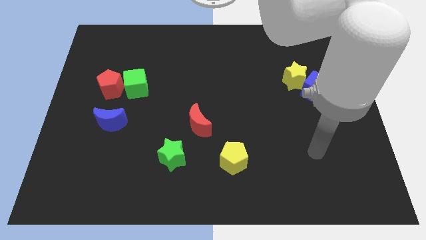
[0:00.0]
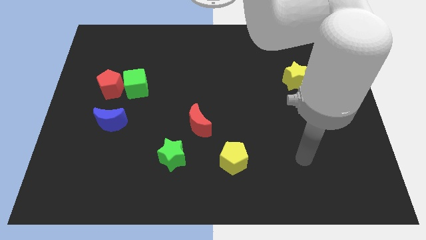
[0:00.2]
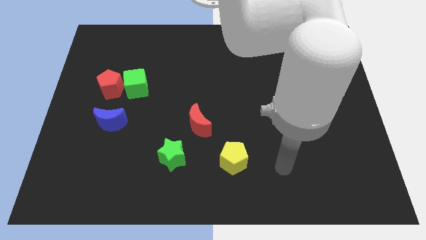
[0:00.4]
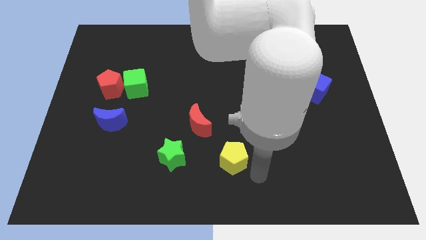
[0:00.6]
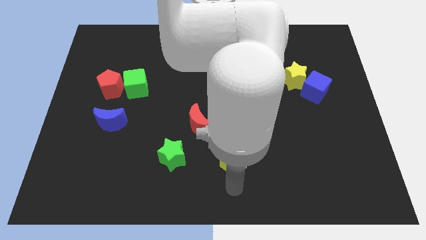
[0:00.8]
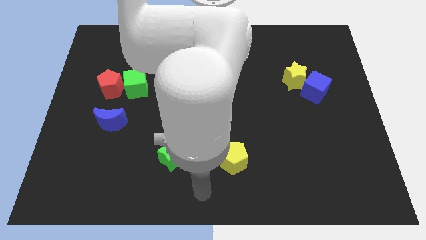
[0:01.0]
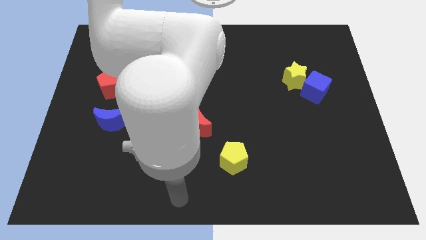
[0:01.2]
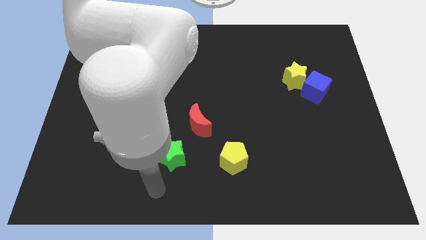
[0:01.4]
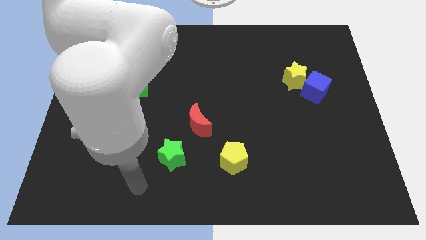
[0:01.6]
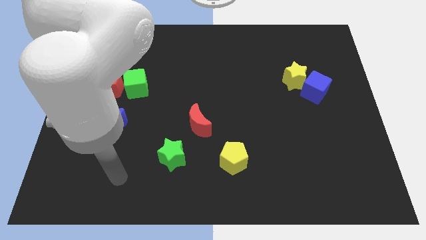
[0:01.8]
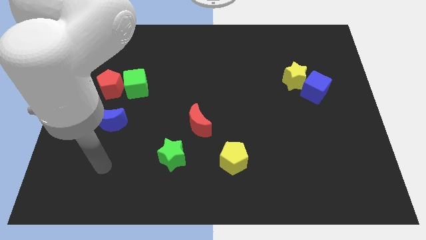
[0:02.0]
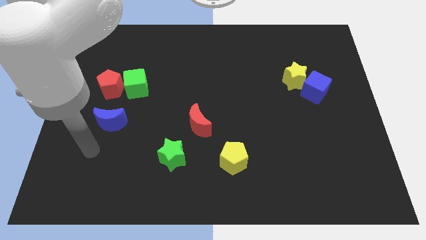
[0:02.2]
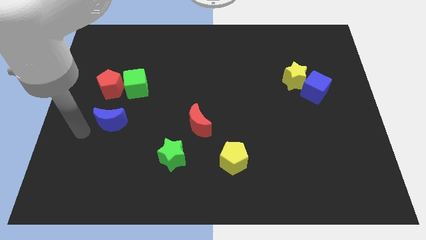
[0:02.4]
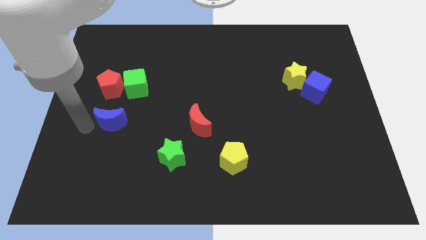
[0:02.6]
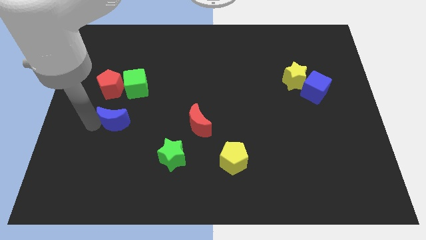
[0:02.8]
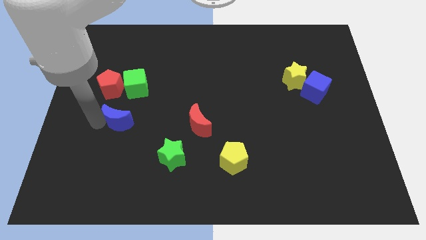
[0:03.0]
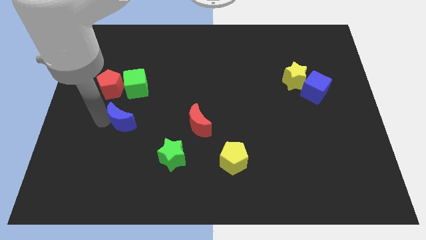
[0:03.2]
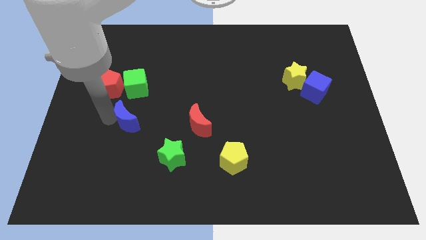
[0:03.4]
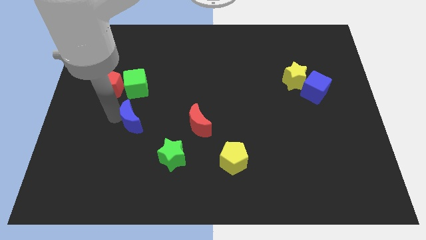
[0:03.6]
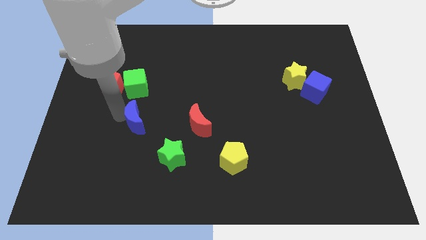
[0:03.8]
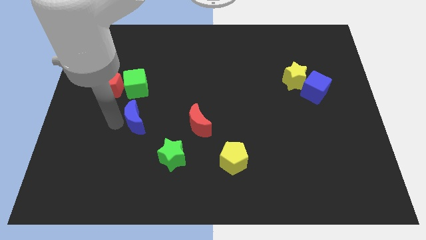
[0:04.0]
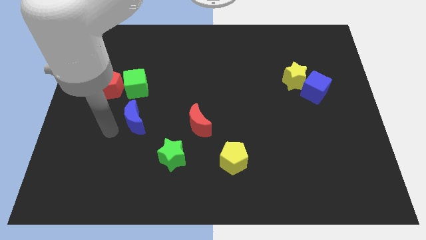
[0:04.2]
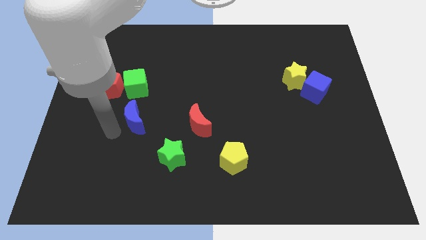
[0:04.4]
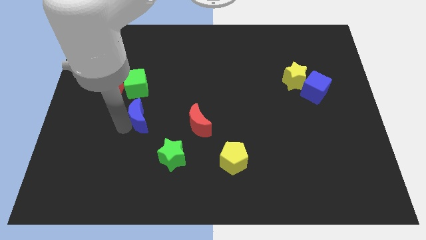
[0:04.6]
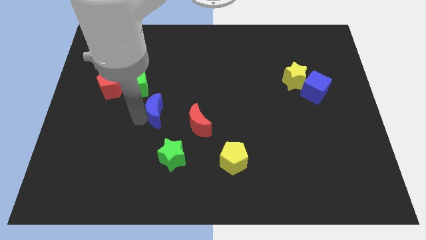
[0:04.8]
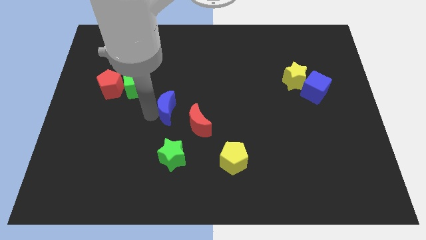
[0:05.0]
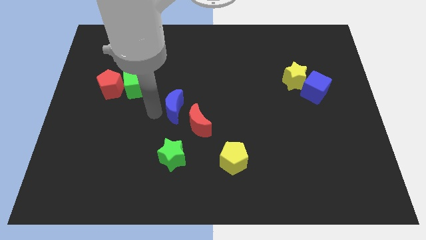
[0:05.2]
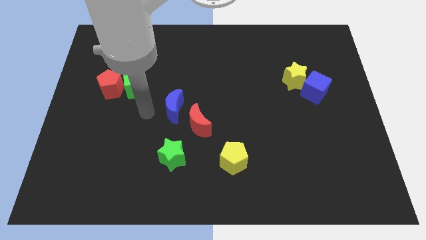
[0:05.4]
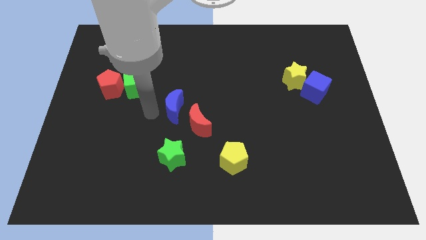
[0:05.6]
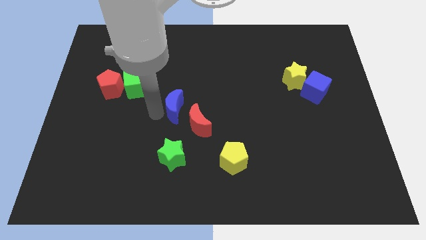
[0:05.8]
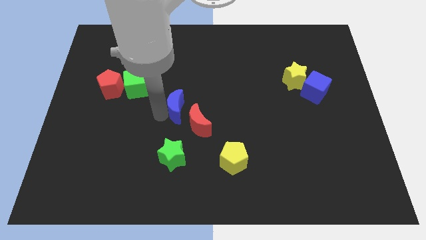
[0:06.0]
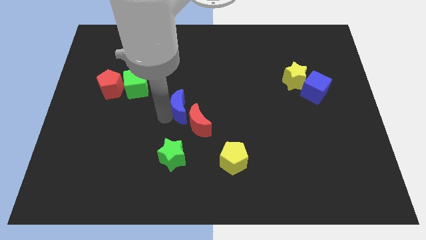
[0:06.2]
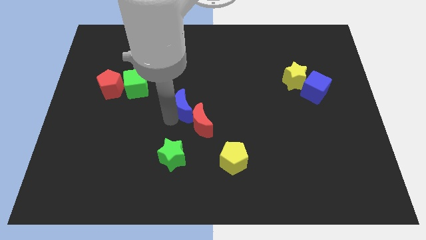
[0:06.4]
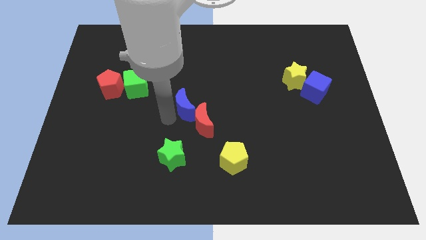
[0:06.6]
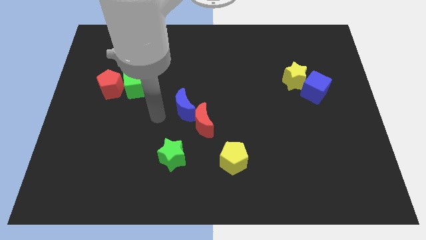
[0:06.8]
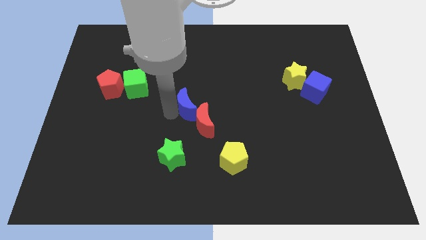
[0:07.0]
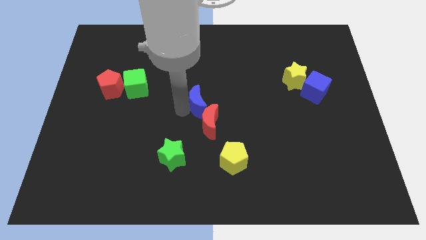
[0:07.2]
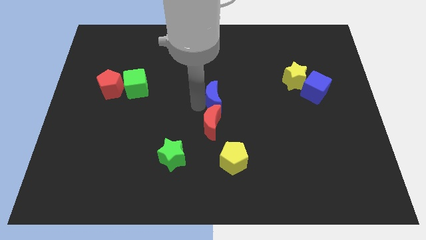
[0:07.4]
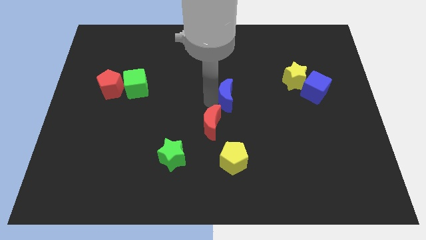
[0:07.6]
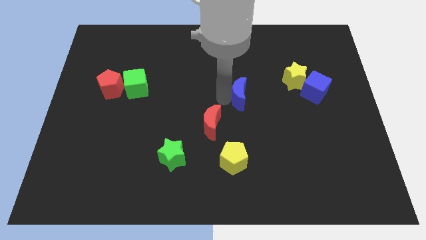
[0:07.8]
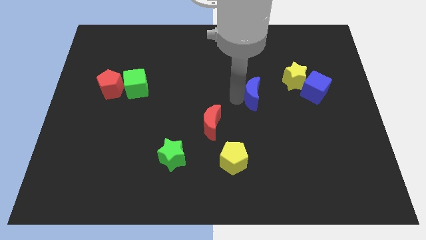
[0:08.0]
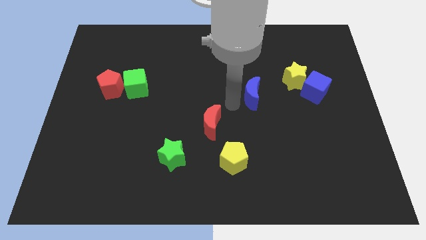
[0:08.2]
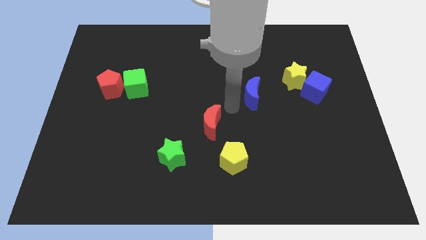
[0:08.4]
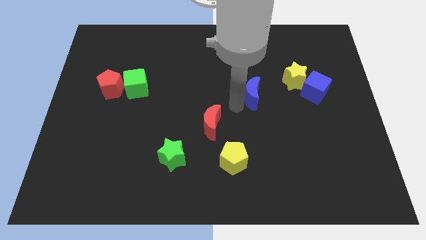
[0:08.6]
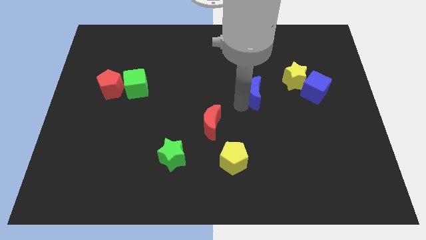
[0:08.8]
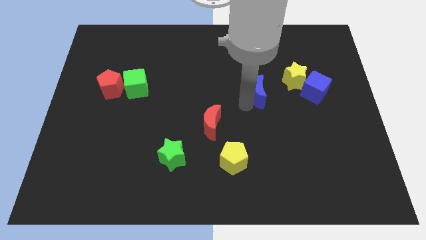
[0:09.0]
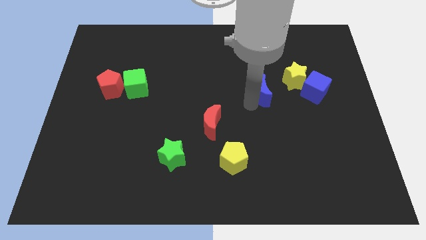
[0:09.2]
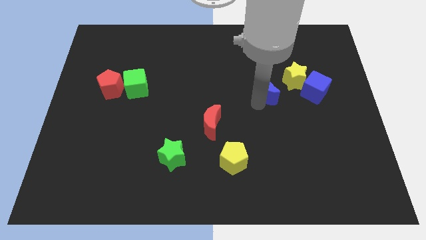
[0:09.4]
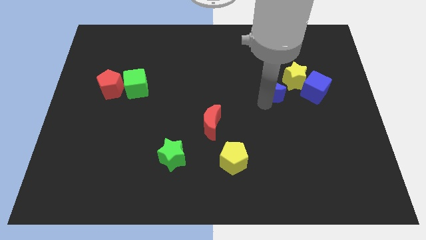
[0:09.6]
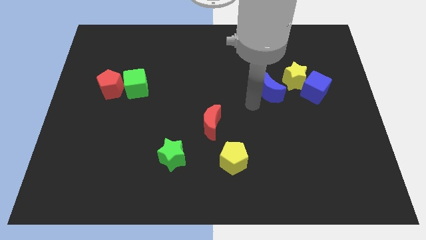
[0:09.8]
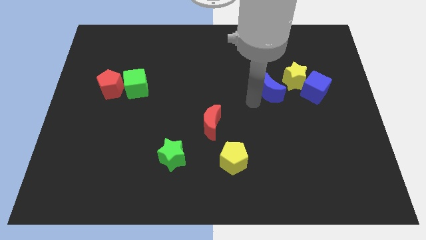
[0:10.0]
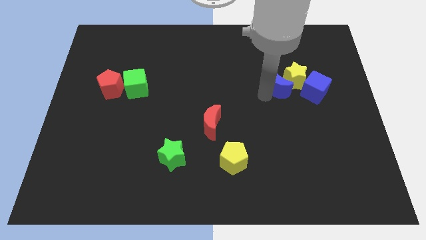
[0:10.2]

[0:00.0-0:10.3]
move the blue moon towards the yellow star

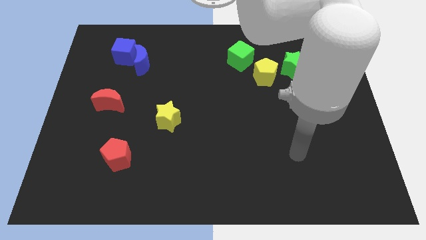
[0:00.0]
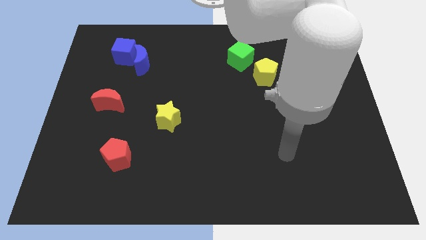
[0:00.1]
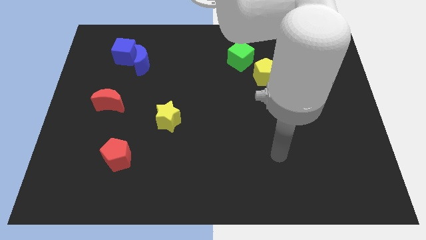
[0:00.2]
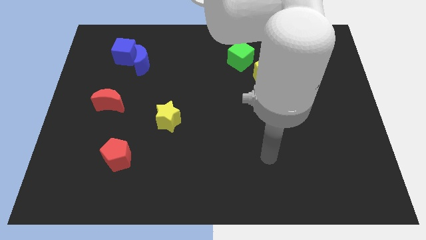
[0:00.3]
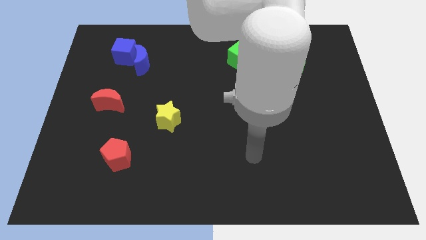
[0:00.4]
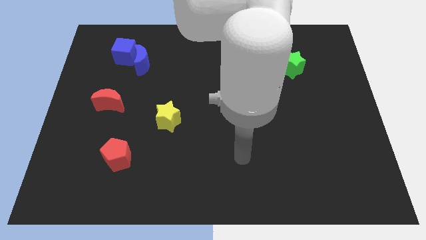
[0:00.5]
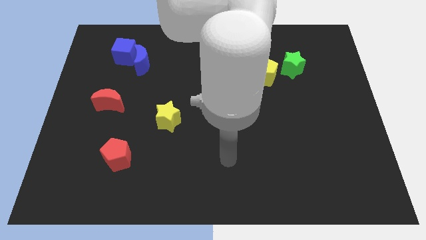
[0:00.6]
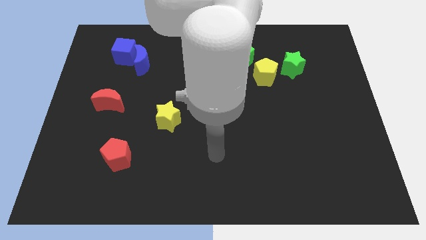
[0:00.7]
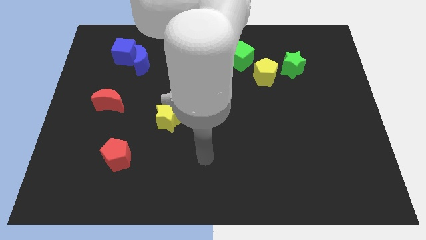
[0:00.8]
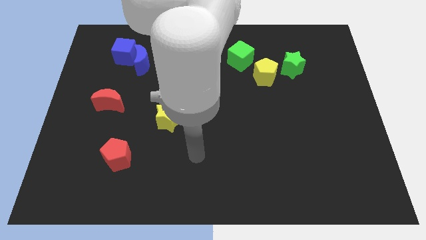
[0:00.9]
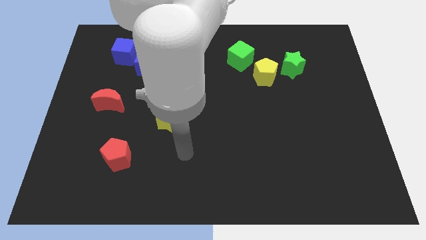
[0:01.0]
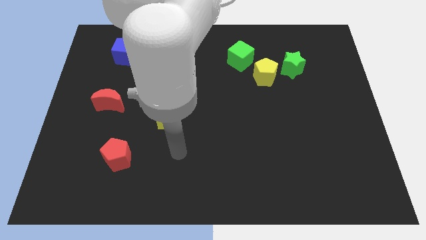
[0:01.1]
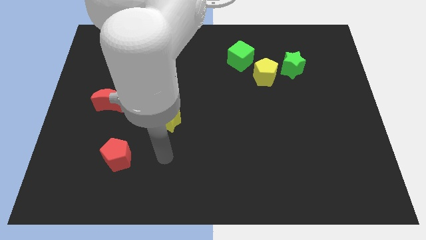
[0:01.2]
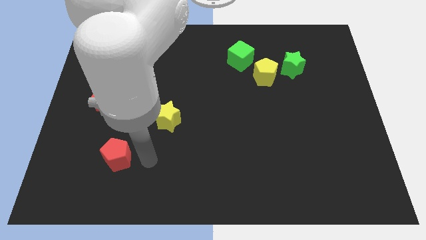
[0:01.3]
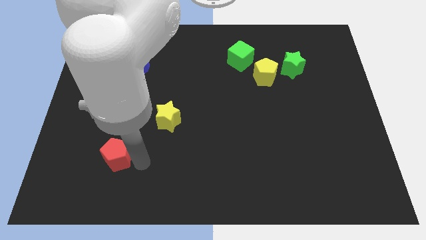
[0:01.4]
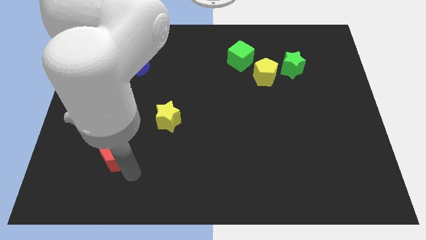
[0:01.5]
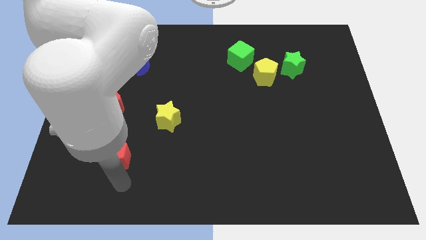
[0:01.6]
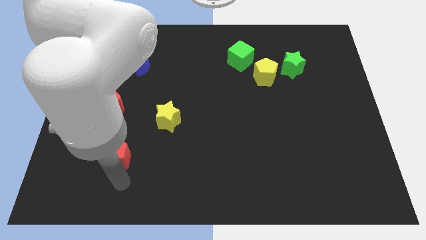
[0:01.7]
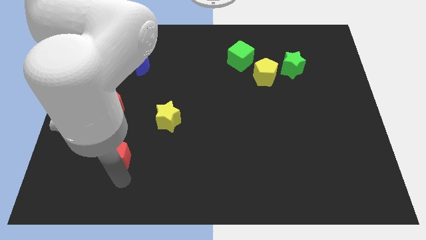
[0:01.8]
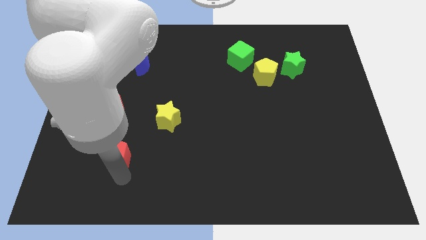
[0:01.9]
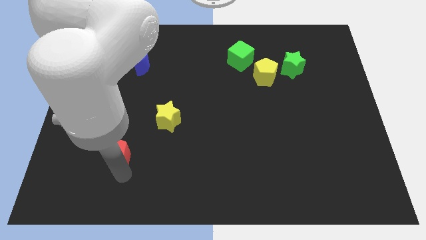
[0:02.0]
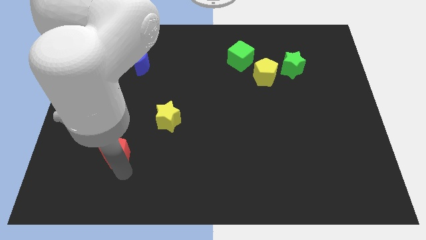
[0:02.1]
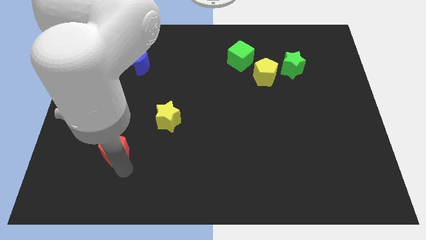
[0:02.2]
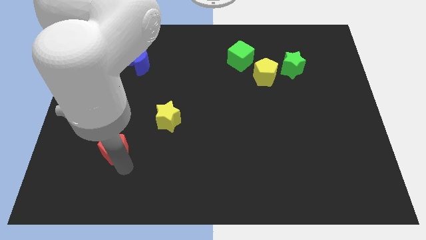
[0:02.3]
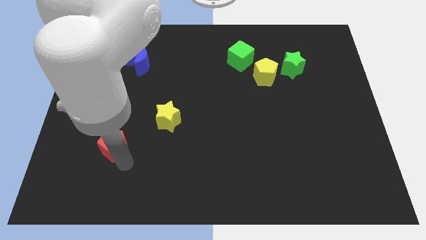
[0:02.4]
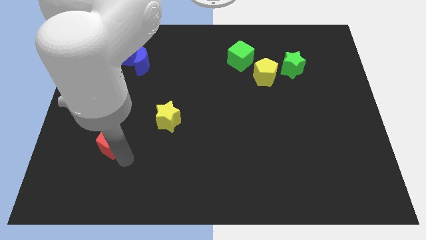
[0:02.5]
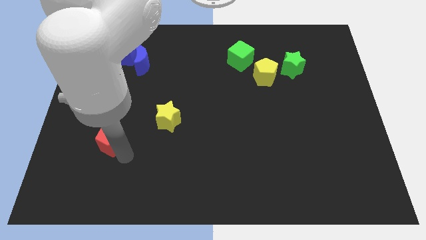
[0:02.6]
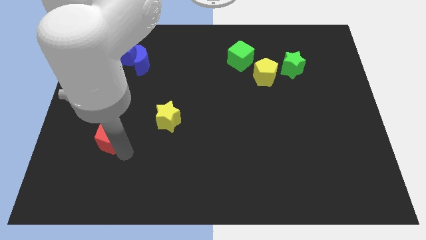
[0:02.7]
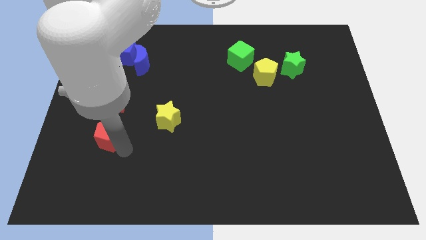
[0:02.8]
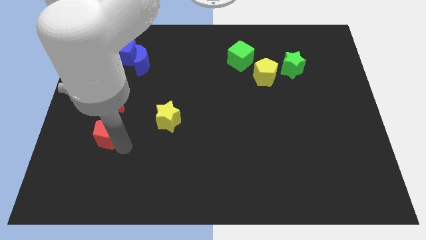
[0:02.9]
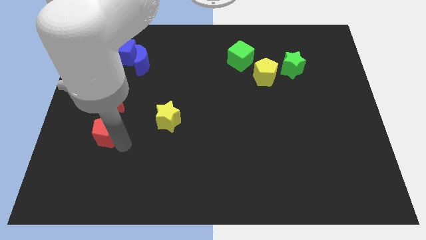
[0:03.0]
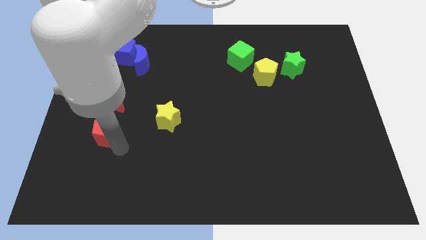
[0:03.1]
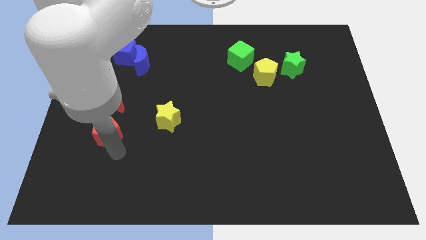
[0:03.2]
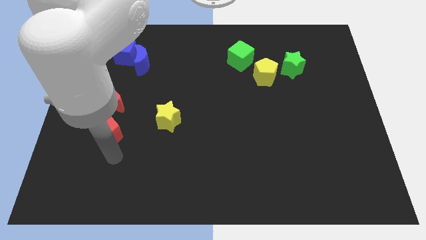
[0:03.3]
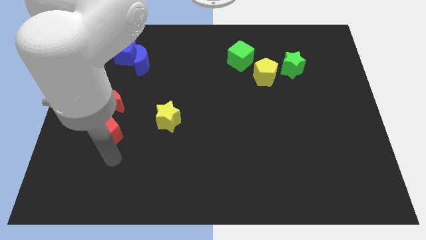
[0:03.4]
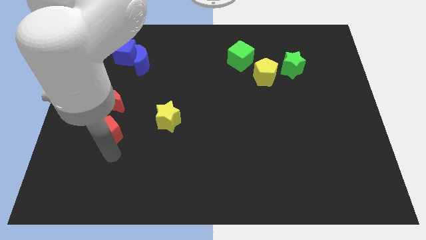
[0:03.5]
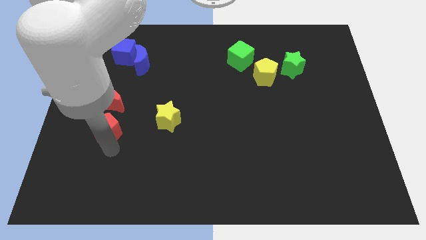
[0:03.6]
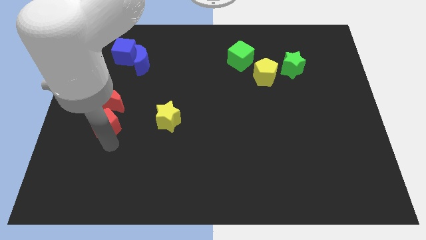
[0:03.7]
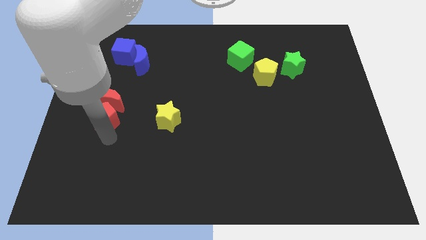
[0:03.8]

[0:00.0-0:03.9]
put the red pentagon close to the red moon
